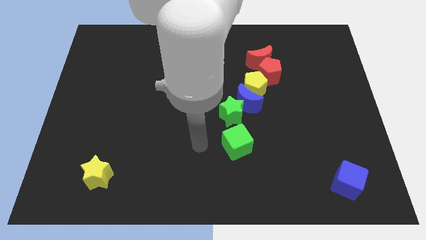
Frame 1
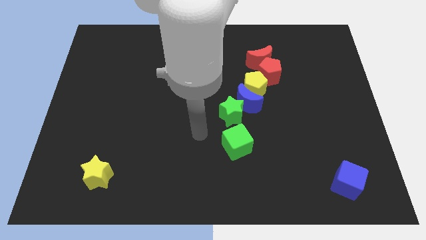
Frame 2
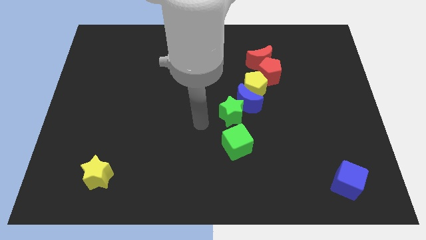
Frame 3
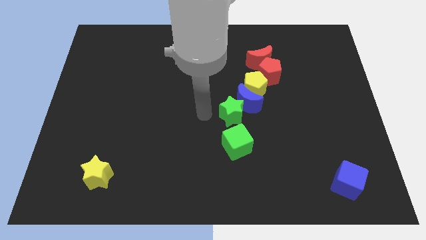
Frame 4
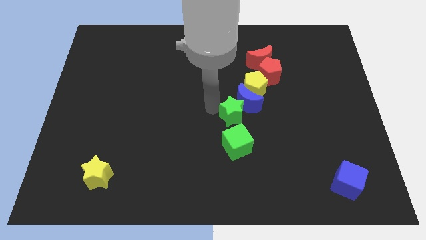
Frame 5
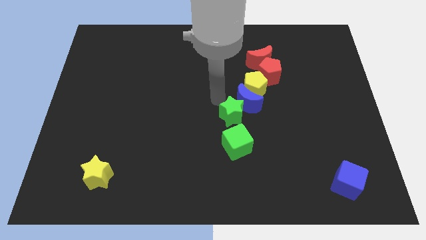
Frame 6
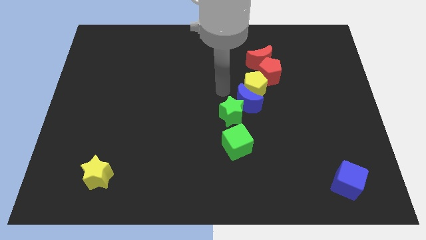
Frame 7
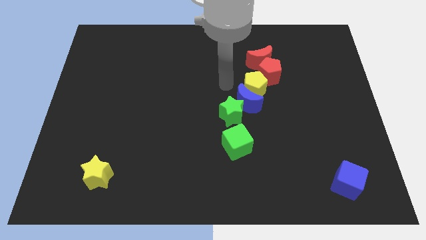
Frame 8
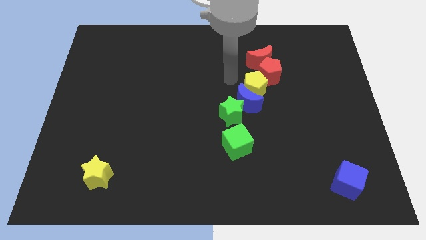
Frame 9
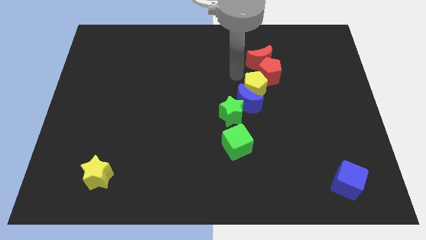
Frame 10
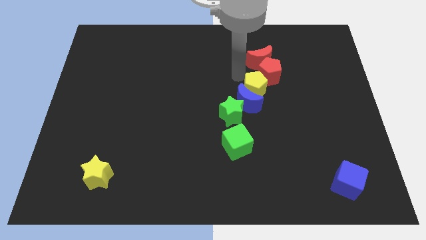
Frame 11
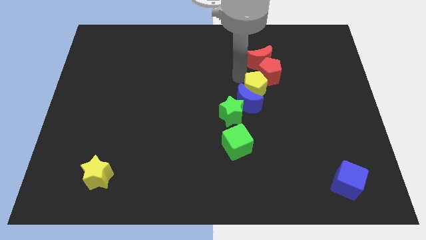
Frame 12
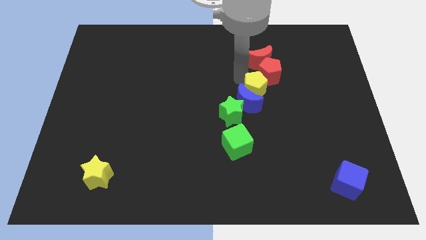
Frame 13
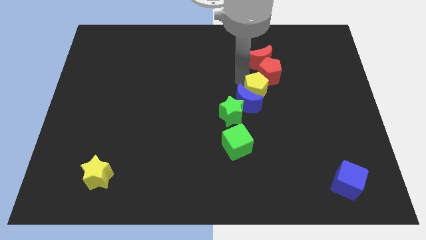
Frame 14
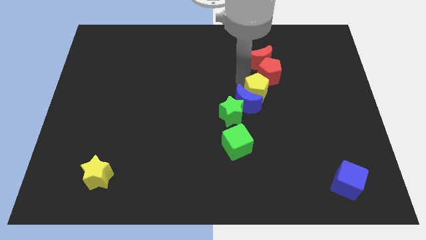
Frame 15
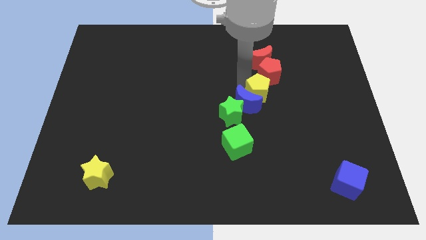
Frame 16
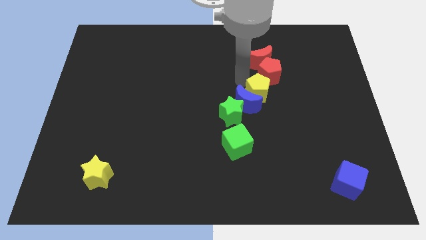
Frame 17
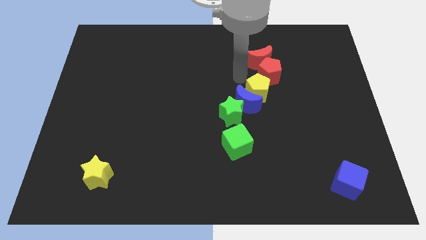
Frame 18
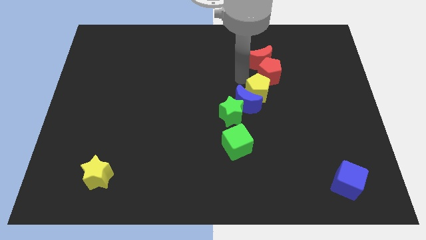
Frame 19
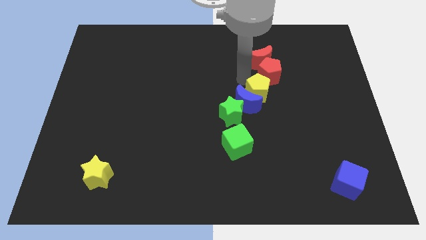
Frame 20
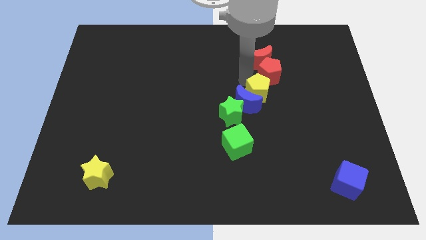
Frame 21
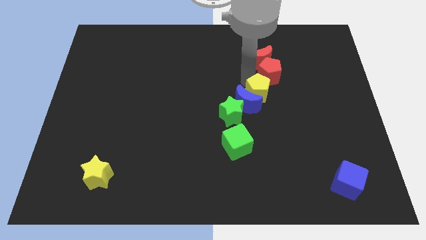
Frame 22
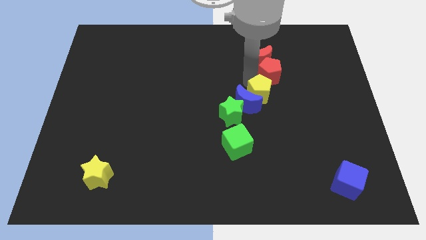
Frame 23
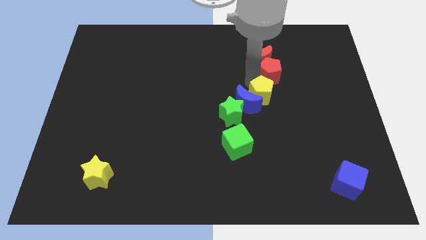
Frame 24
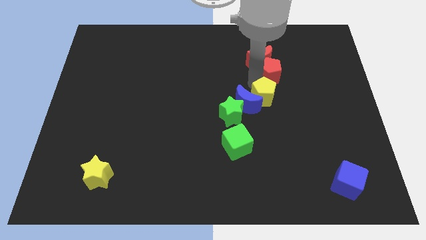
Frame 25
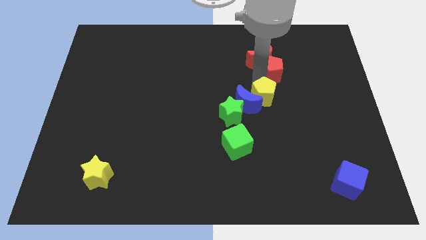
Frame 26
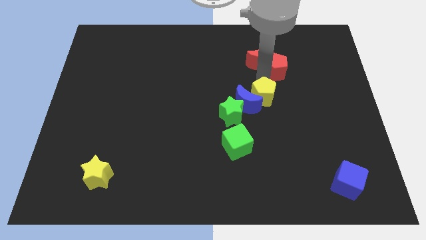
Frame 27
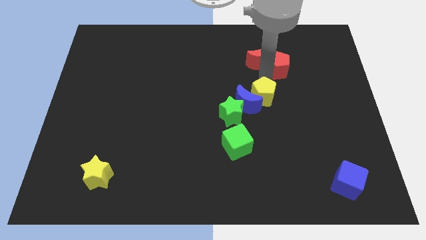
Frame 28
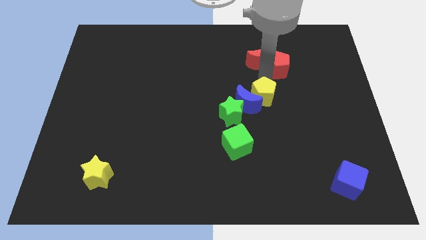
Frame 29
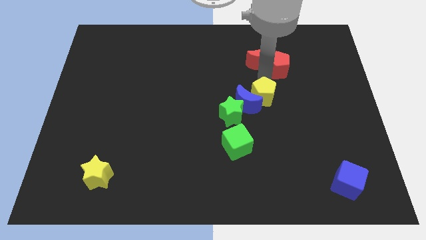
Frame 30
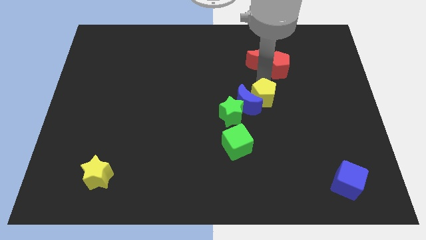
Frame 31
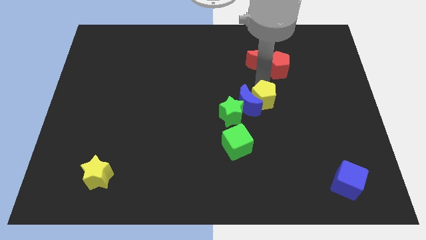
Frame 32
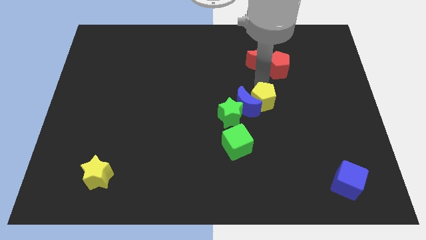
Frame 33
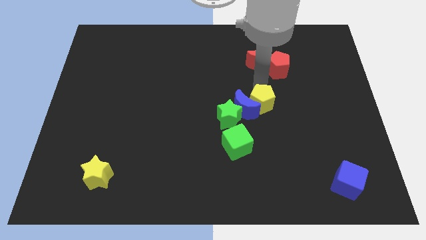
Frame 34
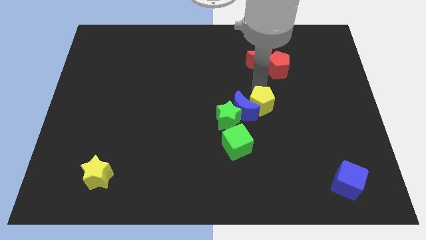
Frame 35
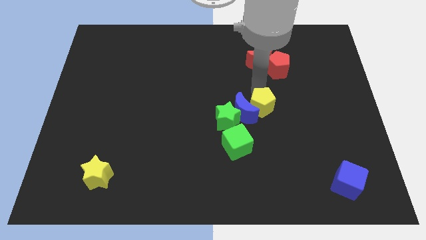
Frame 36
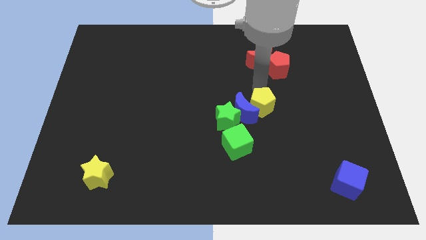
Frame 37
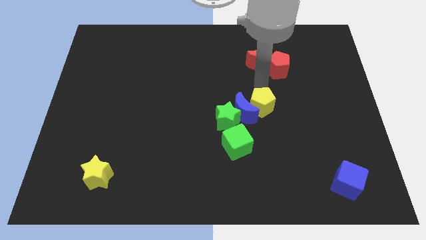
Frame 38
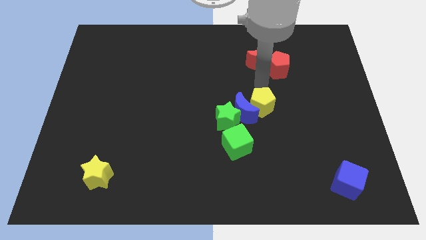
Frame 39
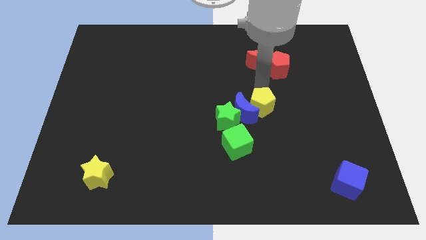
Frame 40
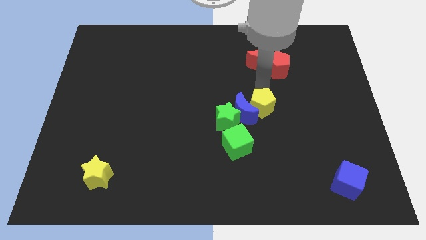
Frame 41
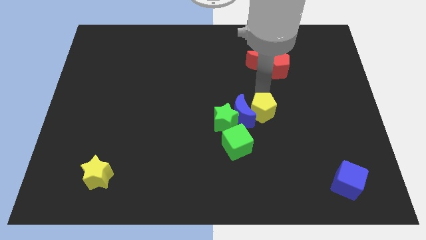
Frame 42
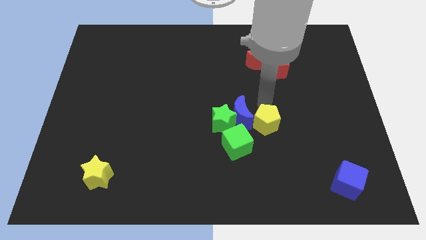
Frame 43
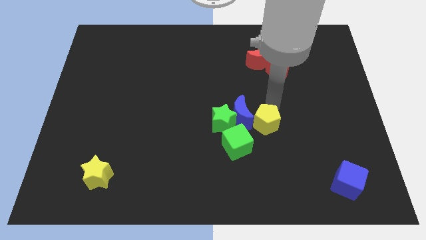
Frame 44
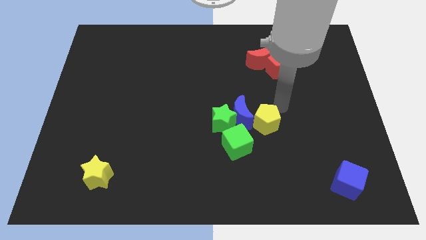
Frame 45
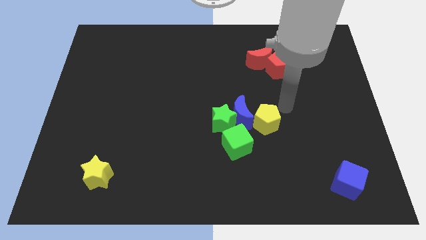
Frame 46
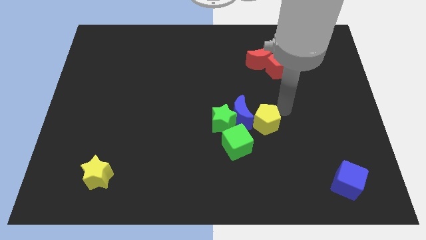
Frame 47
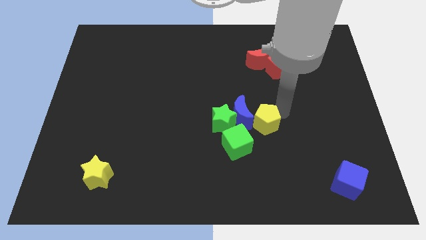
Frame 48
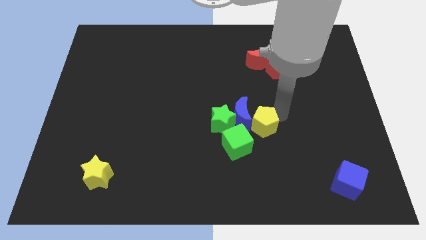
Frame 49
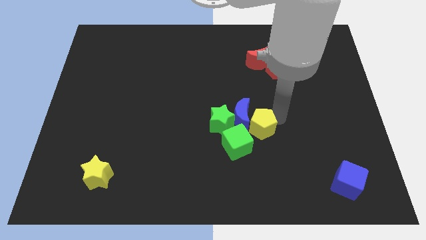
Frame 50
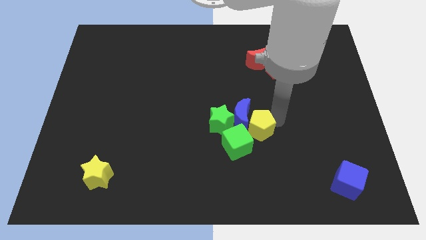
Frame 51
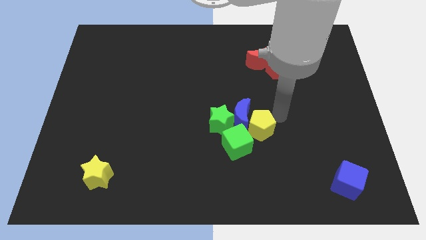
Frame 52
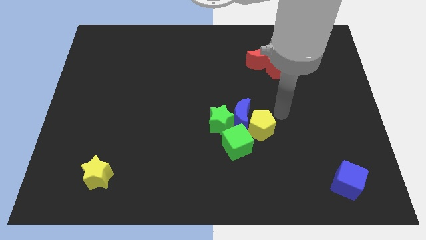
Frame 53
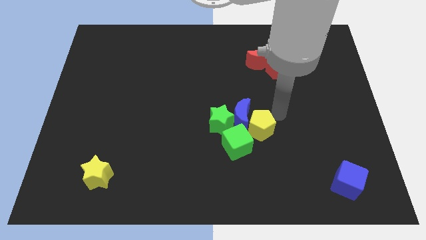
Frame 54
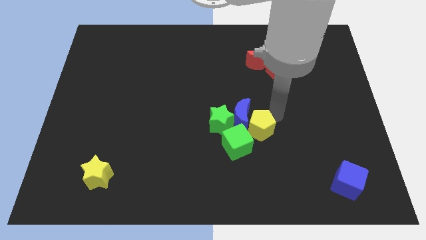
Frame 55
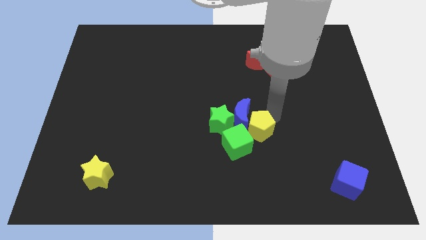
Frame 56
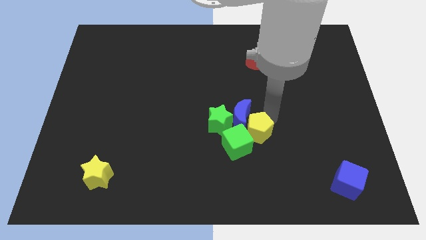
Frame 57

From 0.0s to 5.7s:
move the yellow pentagon next to the green cube

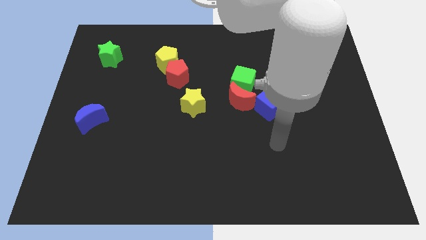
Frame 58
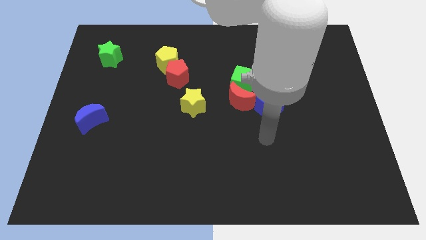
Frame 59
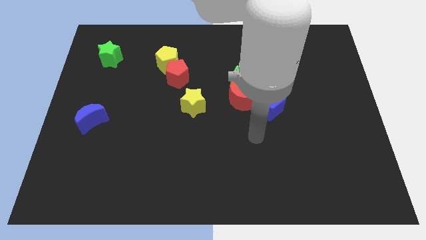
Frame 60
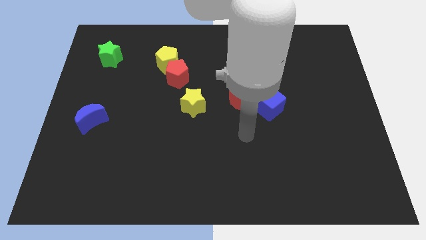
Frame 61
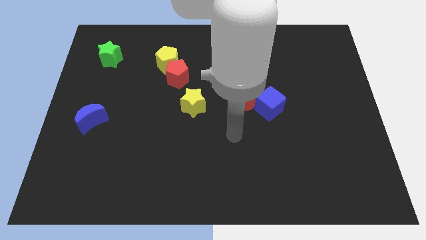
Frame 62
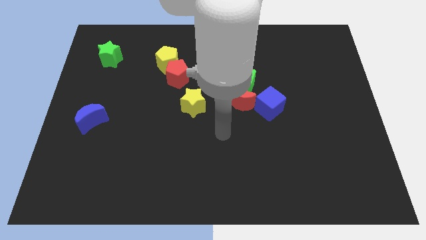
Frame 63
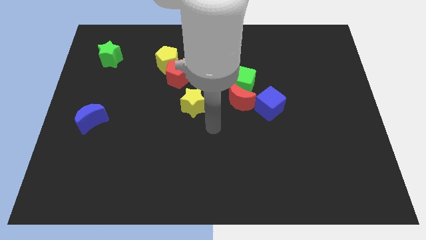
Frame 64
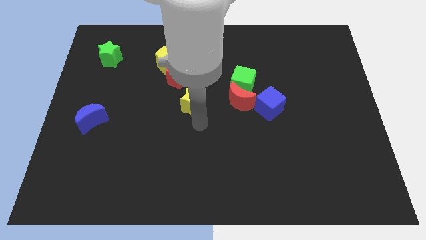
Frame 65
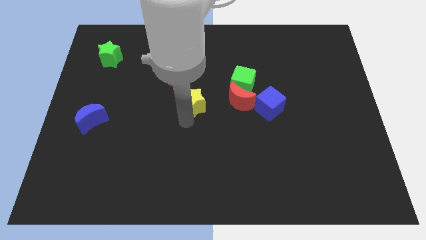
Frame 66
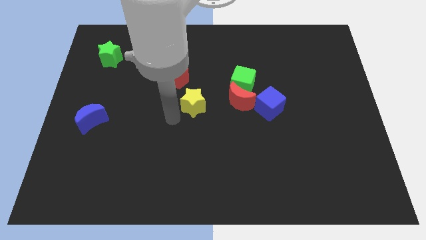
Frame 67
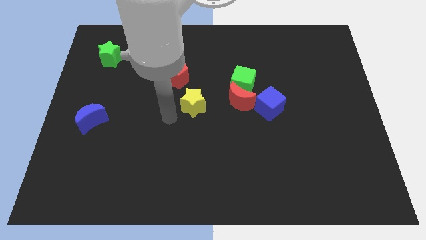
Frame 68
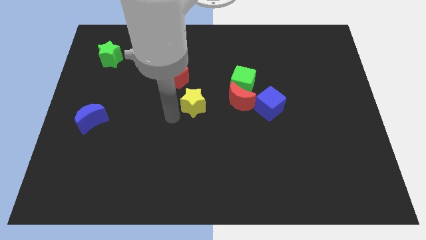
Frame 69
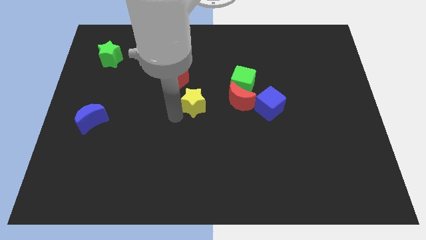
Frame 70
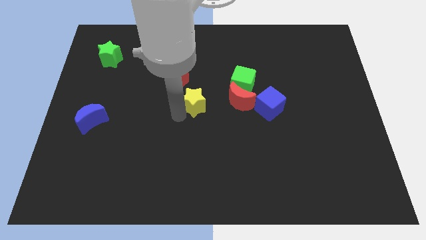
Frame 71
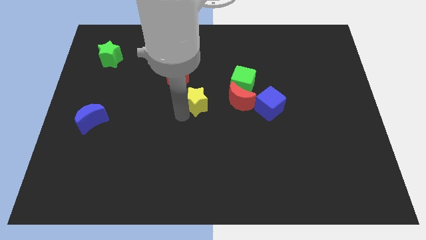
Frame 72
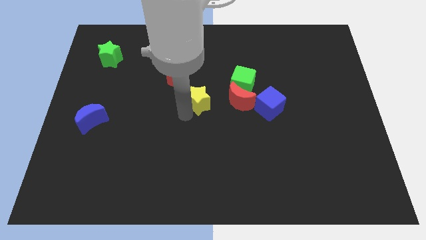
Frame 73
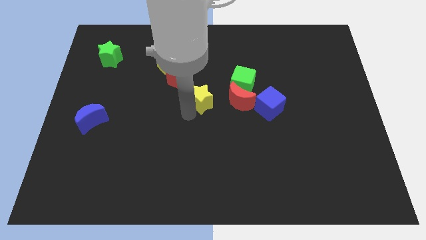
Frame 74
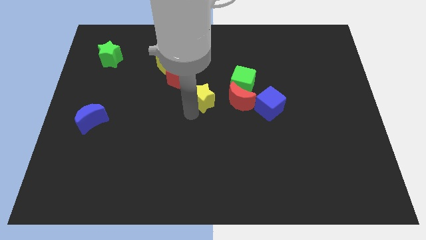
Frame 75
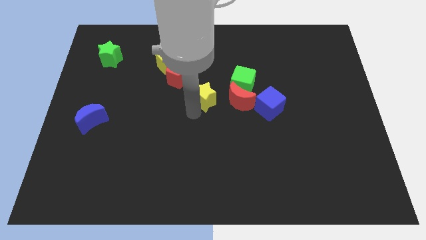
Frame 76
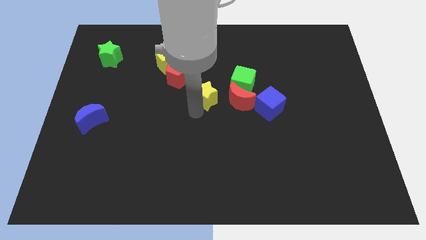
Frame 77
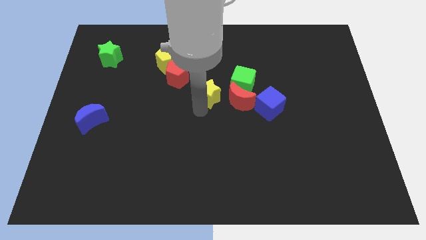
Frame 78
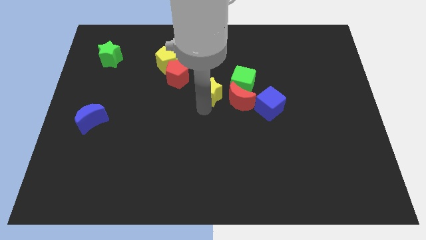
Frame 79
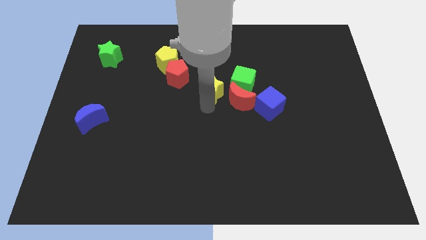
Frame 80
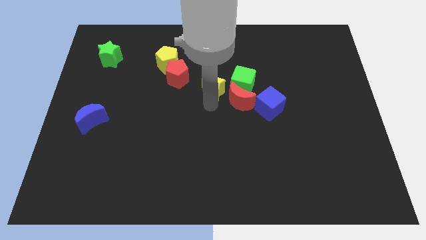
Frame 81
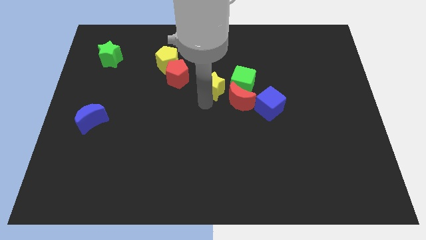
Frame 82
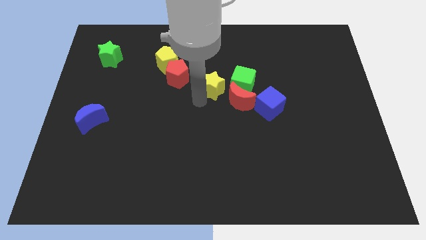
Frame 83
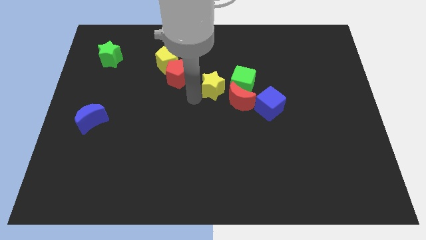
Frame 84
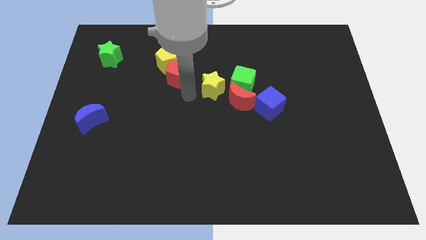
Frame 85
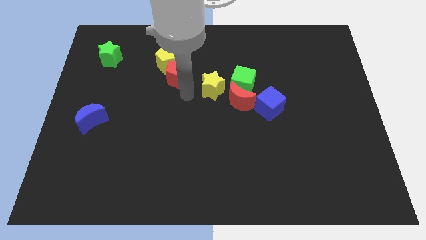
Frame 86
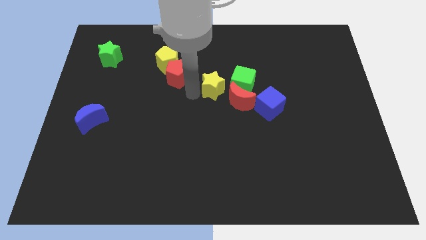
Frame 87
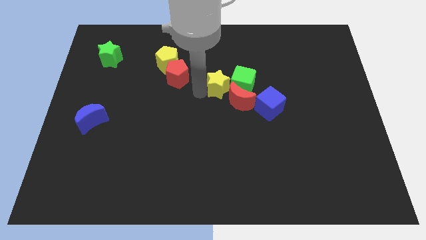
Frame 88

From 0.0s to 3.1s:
put the yellow star towards the green cube
